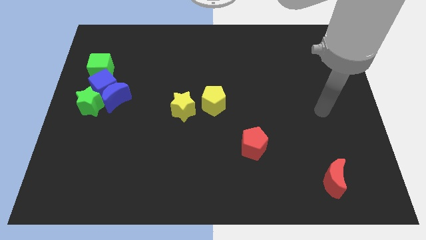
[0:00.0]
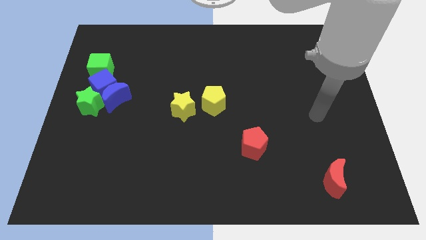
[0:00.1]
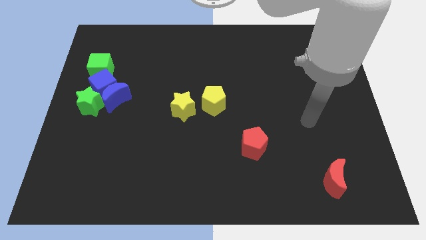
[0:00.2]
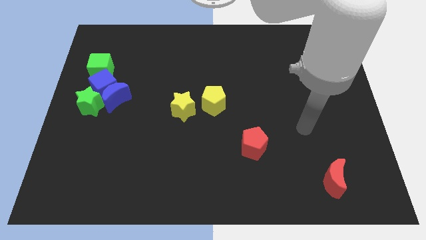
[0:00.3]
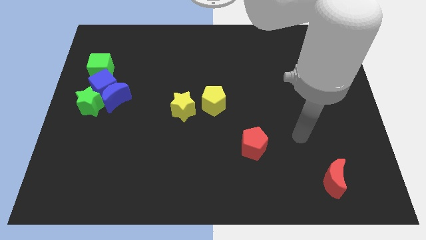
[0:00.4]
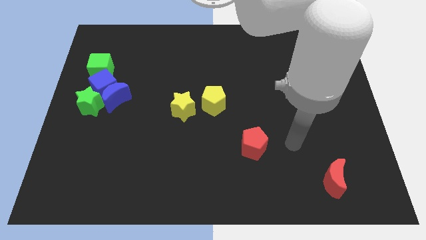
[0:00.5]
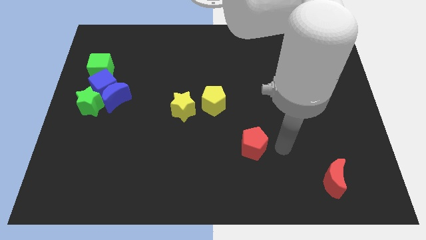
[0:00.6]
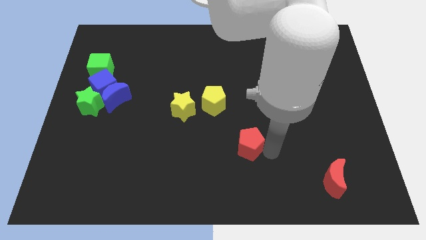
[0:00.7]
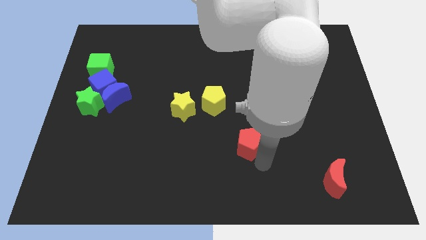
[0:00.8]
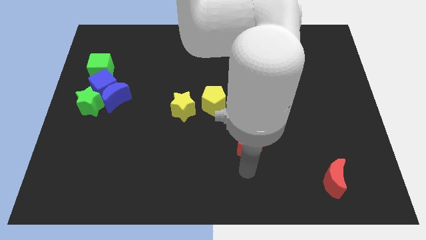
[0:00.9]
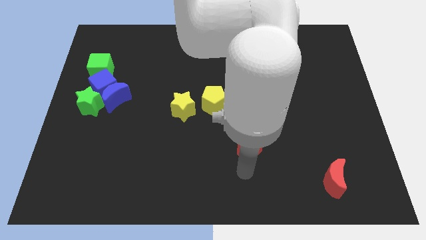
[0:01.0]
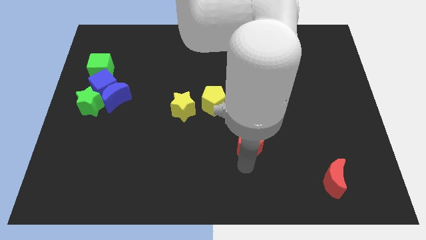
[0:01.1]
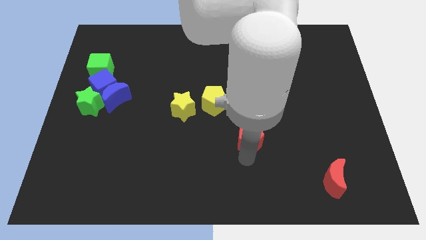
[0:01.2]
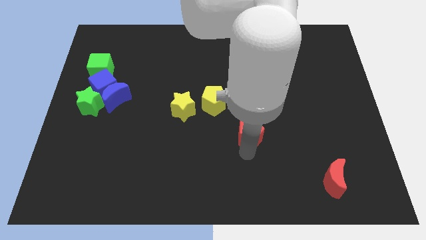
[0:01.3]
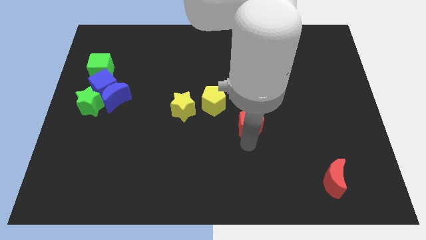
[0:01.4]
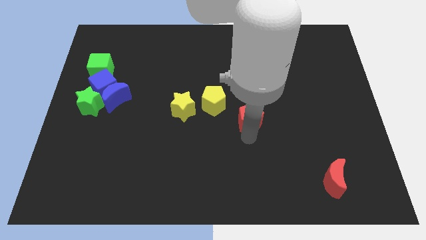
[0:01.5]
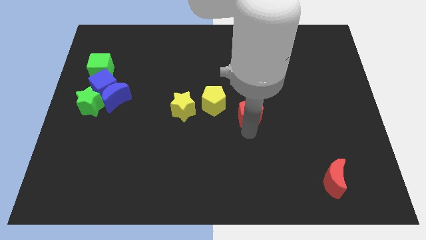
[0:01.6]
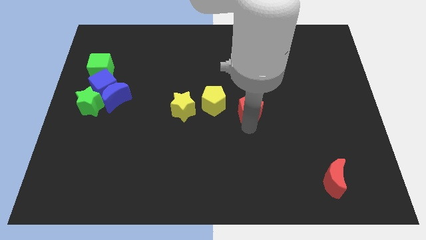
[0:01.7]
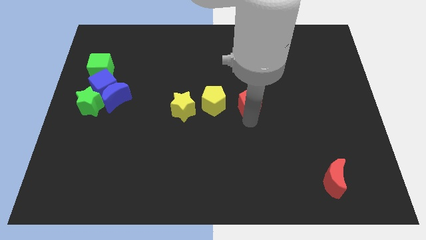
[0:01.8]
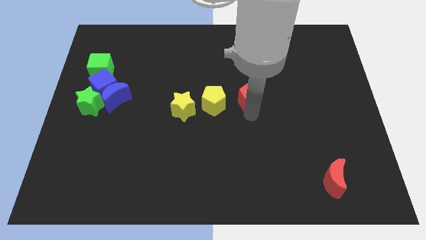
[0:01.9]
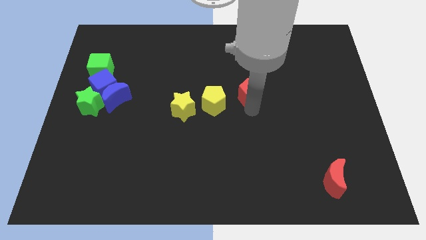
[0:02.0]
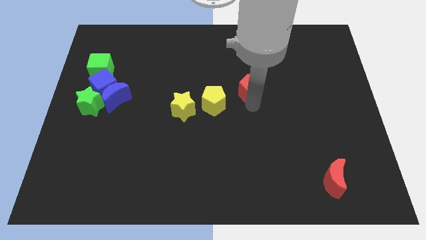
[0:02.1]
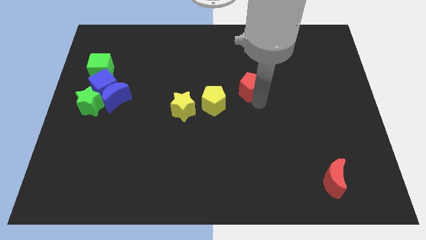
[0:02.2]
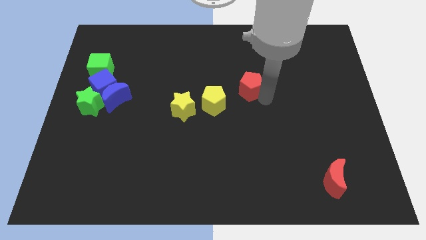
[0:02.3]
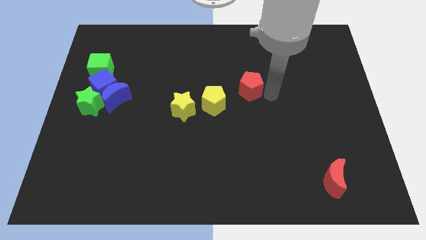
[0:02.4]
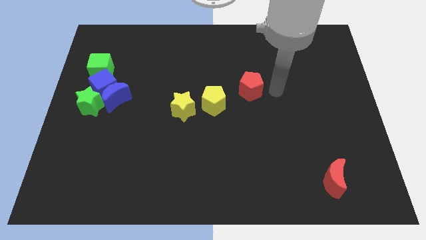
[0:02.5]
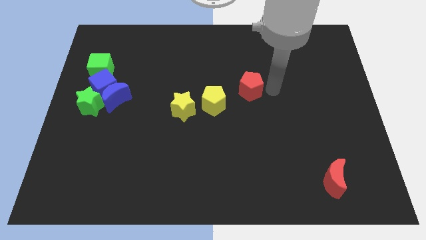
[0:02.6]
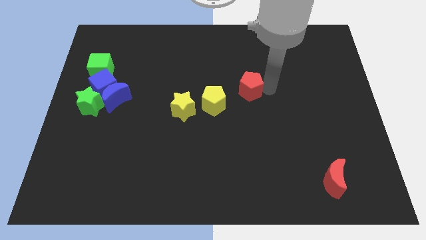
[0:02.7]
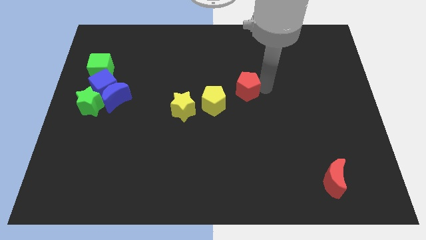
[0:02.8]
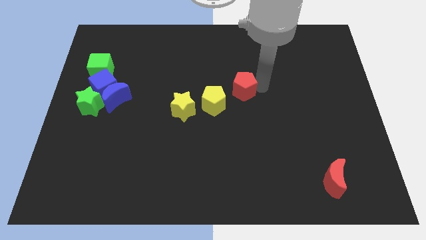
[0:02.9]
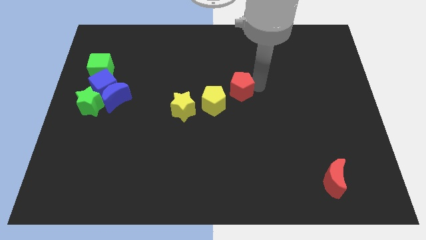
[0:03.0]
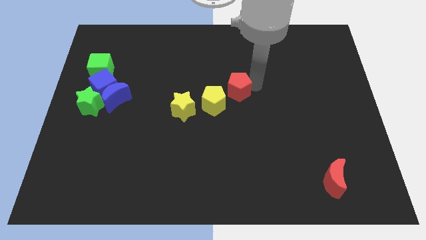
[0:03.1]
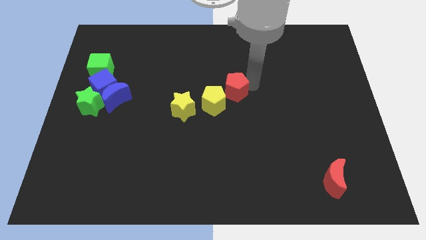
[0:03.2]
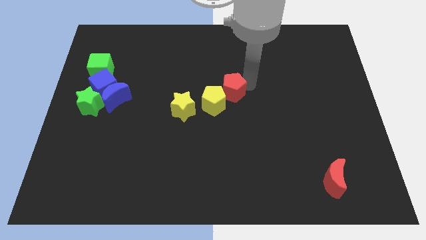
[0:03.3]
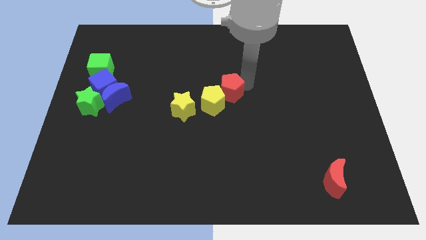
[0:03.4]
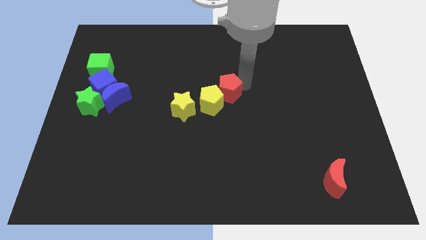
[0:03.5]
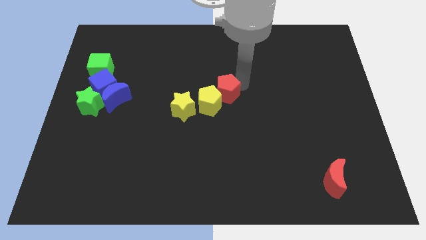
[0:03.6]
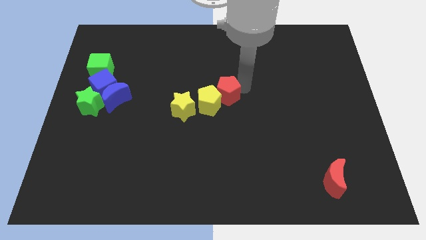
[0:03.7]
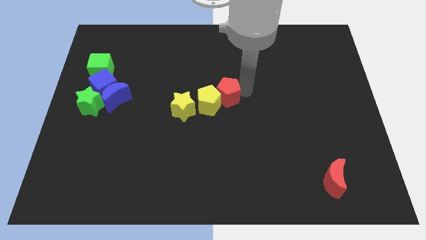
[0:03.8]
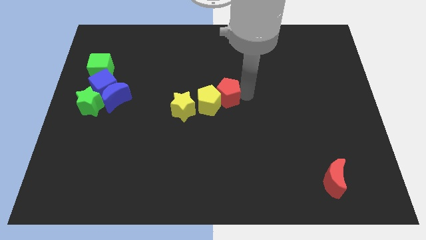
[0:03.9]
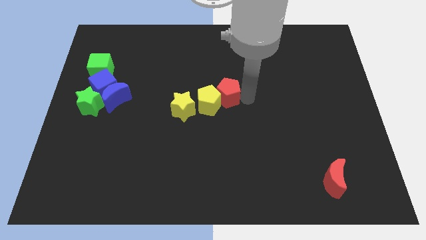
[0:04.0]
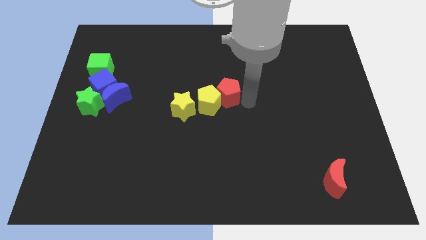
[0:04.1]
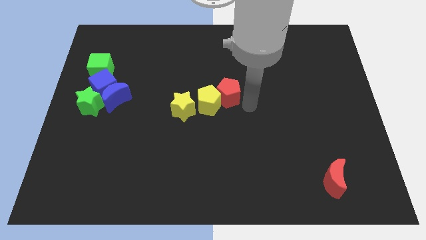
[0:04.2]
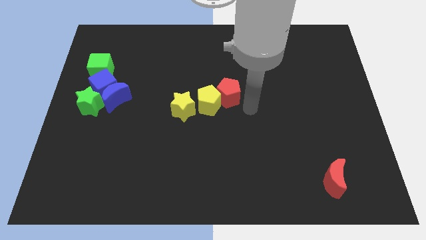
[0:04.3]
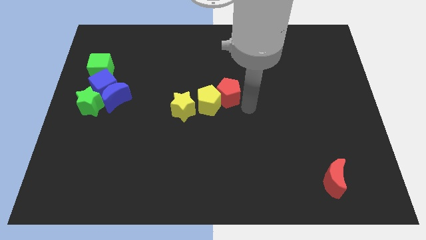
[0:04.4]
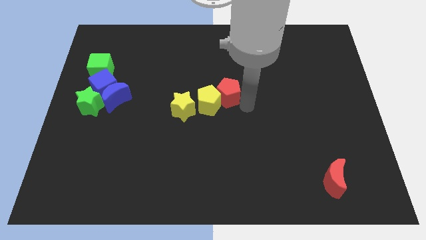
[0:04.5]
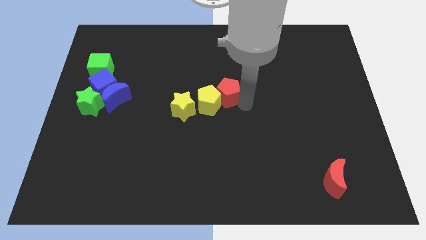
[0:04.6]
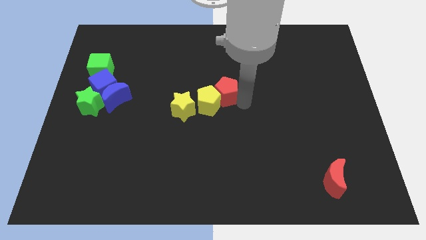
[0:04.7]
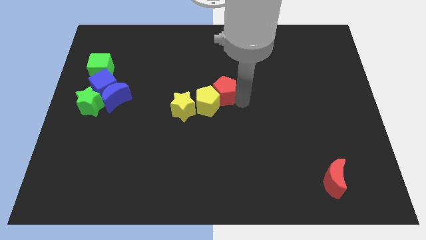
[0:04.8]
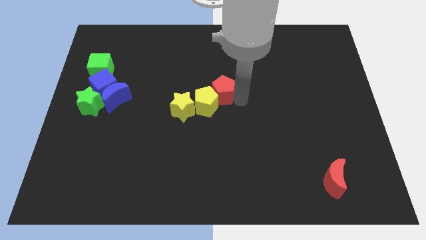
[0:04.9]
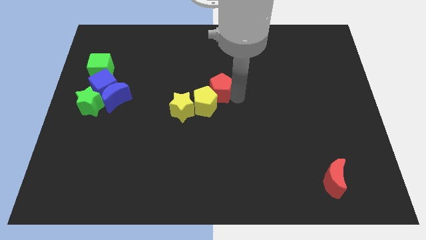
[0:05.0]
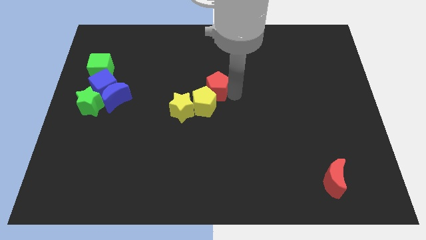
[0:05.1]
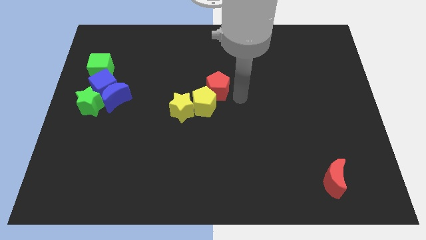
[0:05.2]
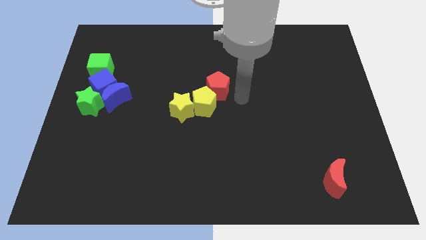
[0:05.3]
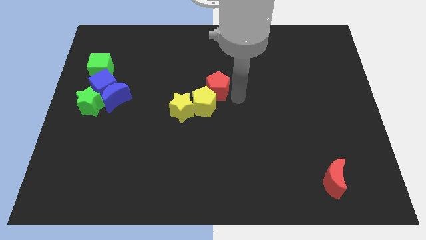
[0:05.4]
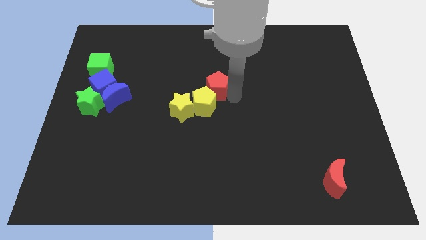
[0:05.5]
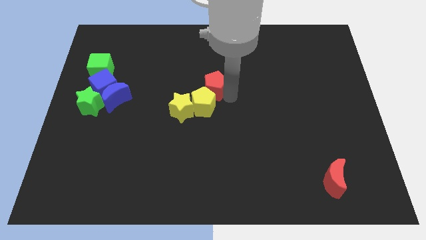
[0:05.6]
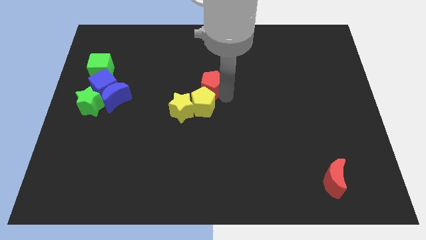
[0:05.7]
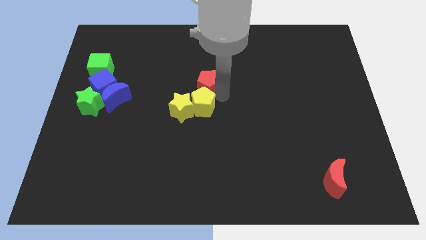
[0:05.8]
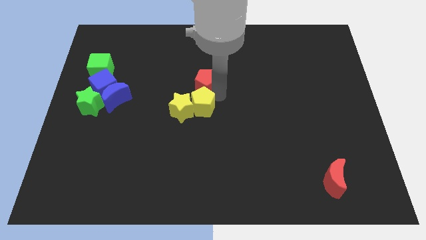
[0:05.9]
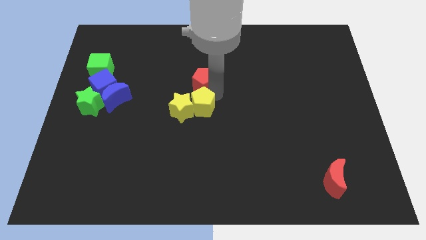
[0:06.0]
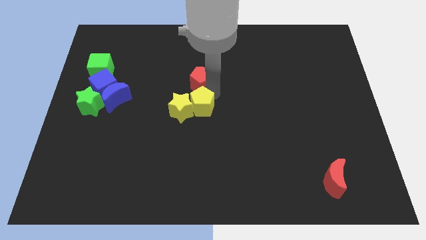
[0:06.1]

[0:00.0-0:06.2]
slide the red pentagon to the top of the yellow star

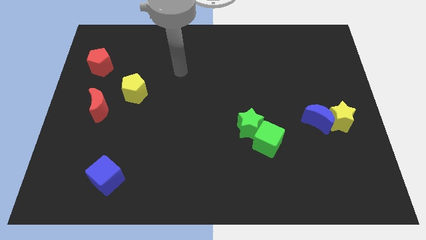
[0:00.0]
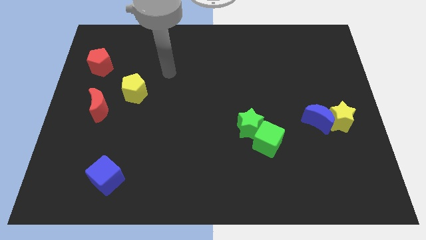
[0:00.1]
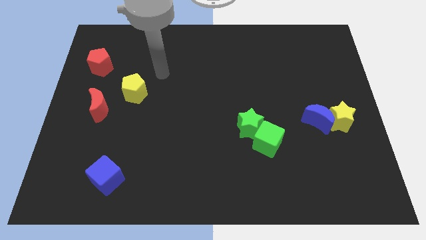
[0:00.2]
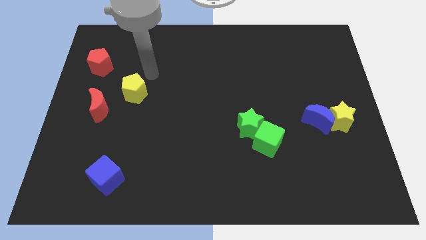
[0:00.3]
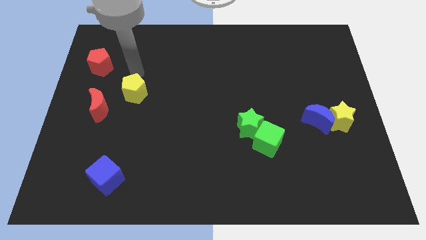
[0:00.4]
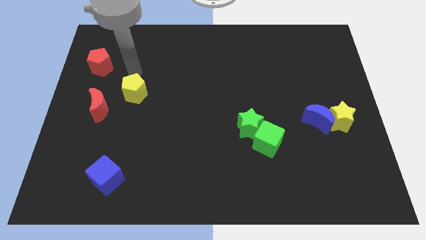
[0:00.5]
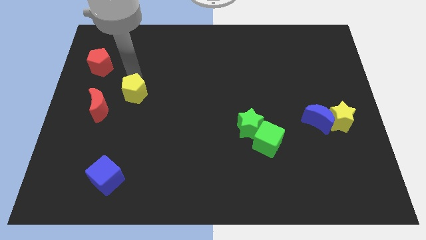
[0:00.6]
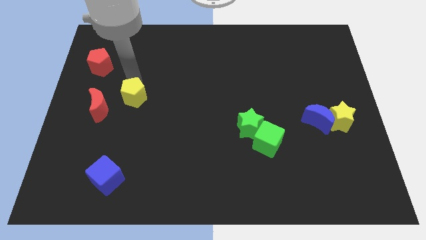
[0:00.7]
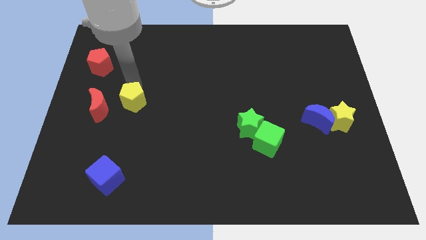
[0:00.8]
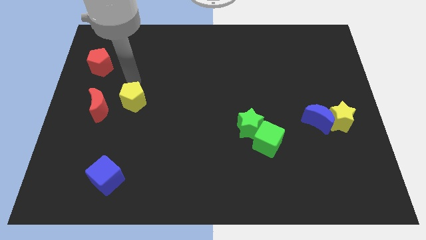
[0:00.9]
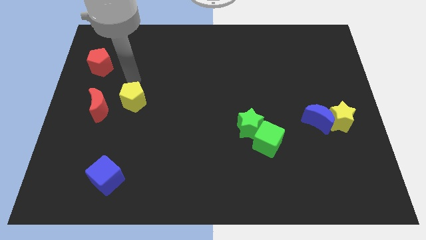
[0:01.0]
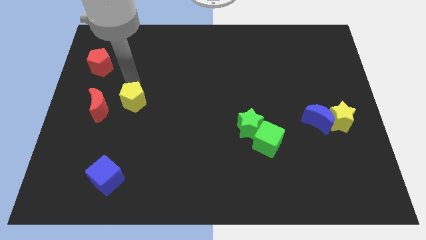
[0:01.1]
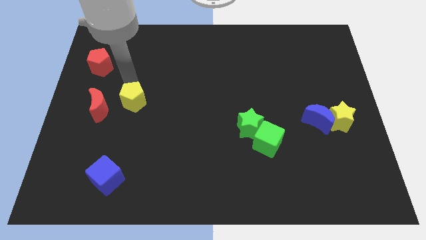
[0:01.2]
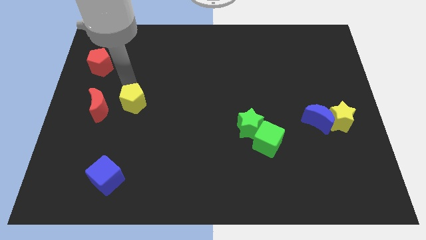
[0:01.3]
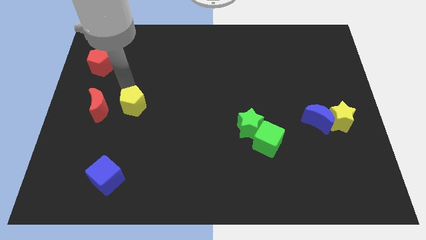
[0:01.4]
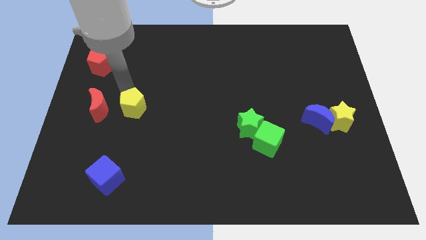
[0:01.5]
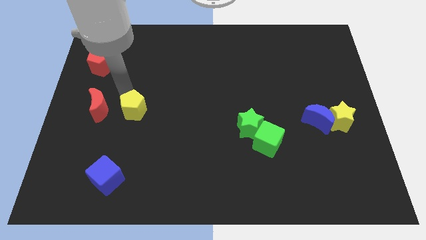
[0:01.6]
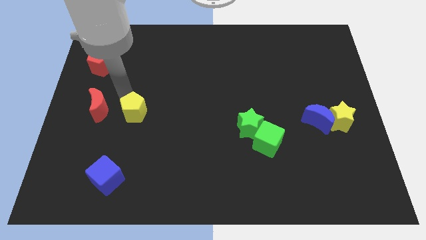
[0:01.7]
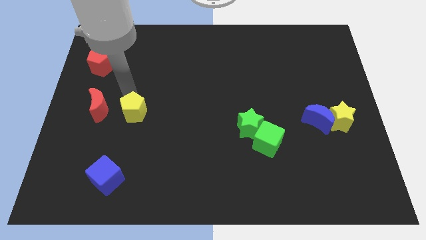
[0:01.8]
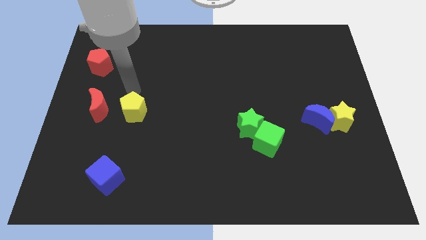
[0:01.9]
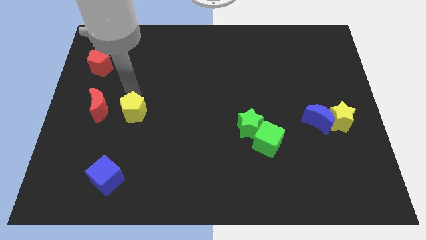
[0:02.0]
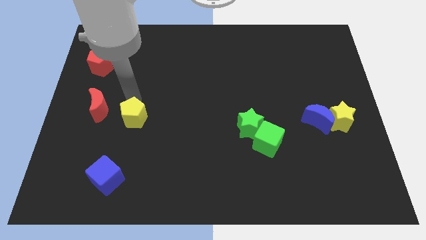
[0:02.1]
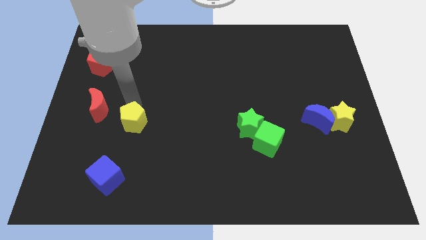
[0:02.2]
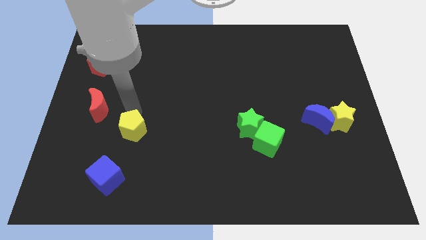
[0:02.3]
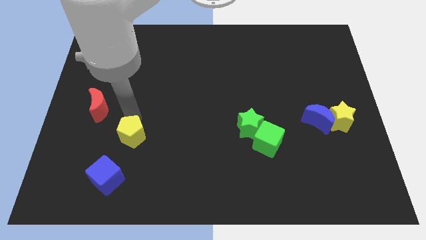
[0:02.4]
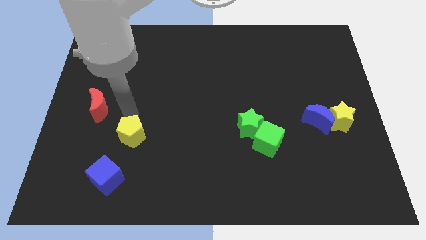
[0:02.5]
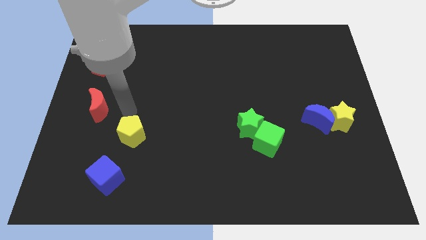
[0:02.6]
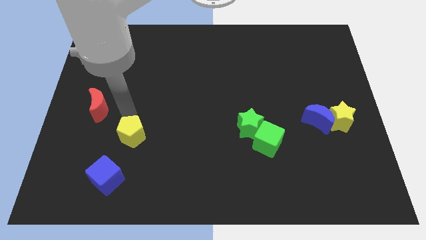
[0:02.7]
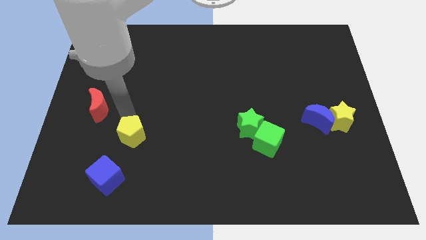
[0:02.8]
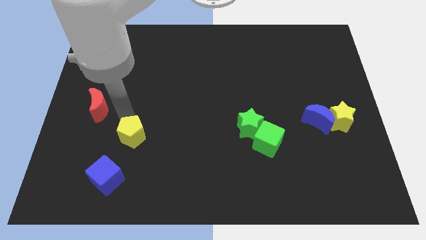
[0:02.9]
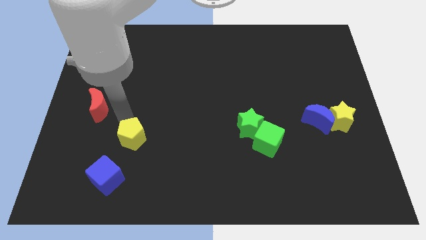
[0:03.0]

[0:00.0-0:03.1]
push the yellow pentagon to the top right of the blue cube
